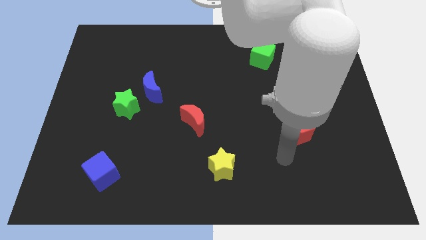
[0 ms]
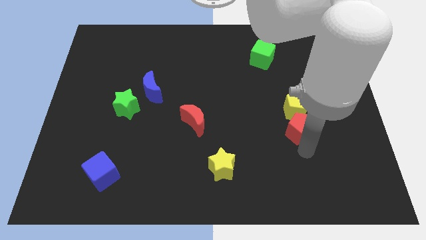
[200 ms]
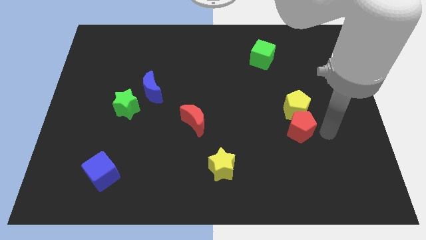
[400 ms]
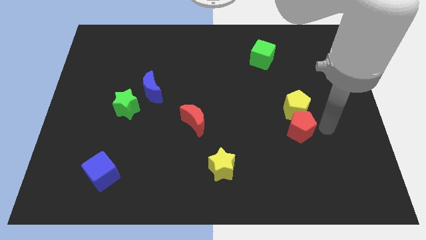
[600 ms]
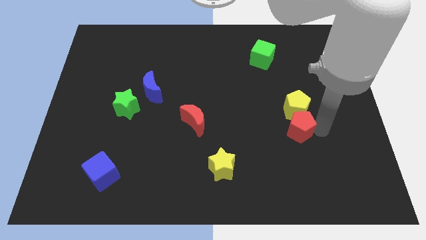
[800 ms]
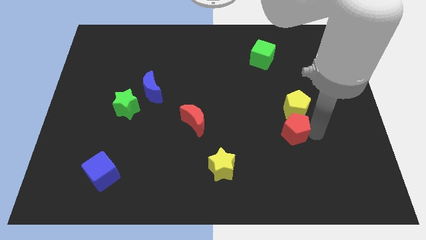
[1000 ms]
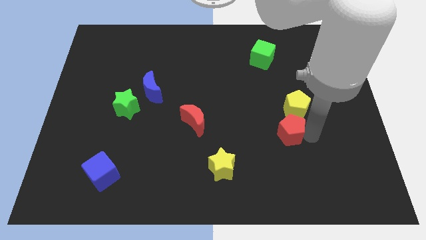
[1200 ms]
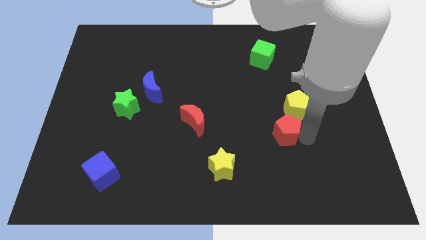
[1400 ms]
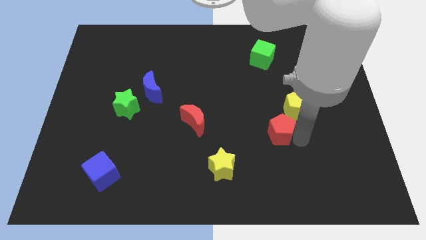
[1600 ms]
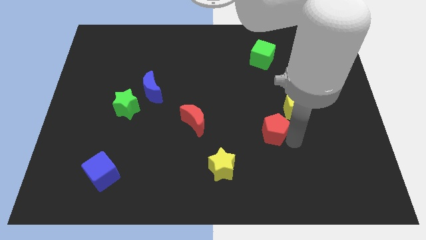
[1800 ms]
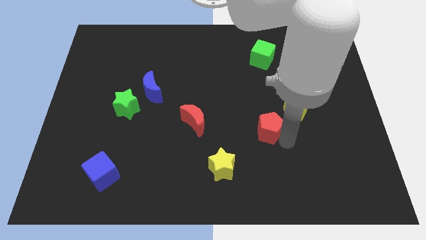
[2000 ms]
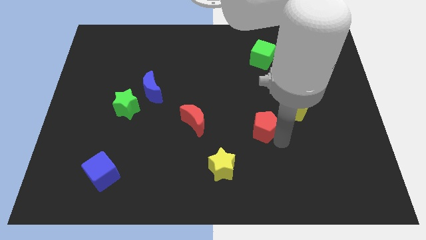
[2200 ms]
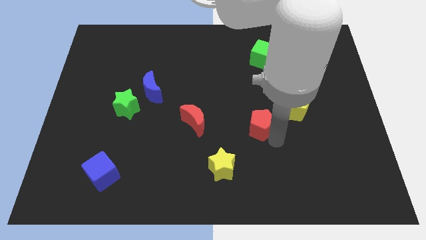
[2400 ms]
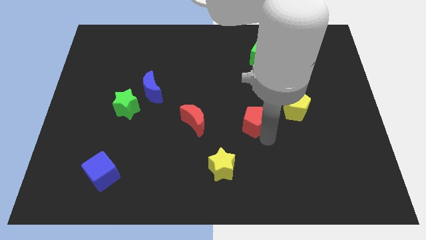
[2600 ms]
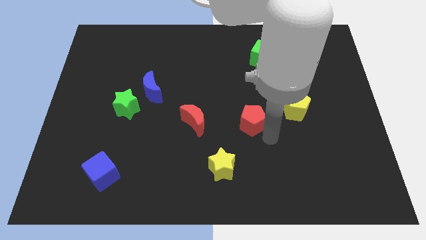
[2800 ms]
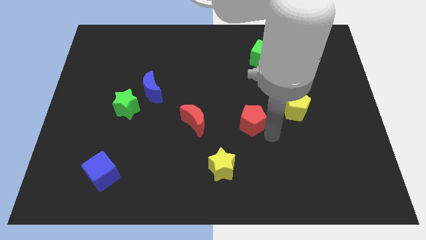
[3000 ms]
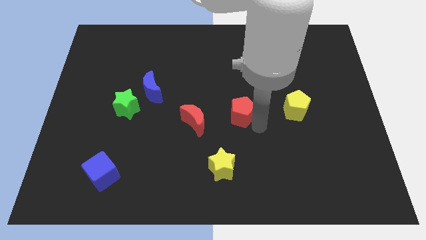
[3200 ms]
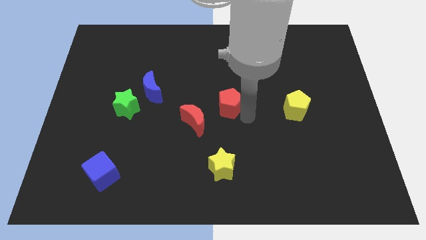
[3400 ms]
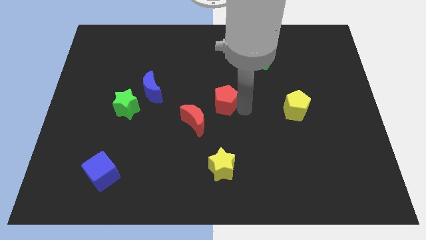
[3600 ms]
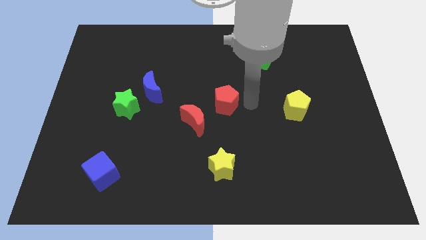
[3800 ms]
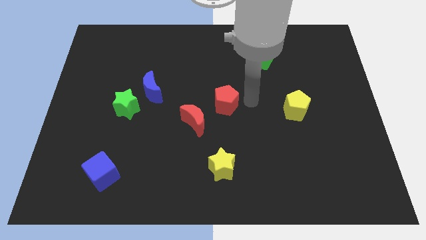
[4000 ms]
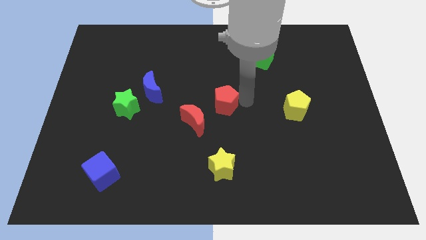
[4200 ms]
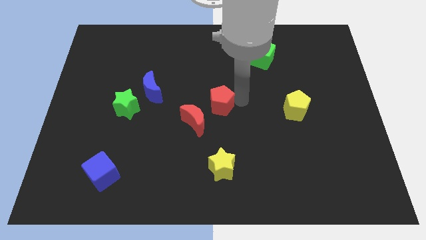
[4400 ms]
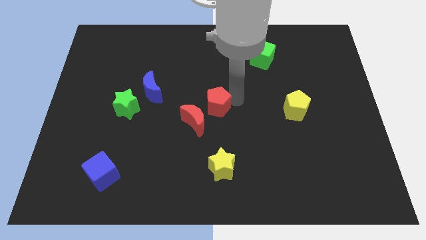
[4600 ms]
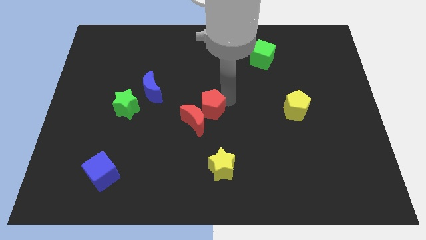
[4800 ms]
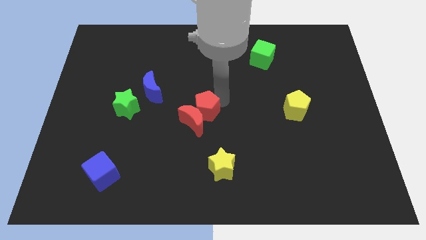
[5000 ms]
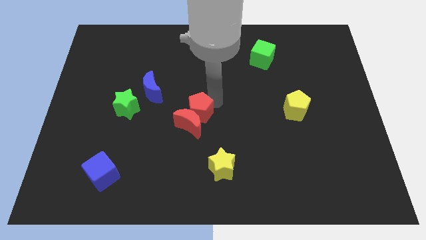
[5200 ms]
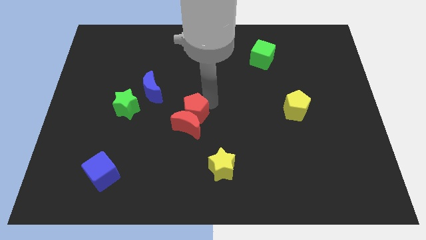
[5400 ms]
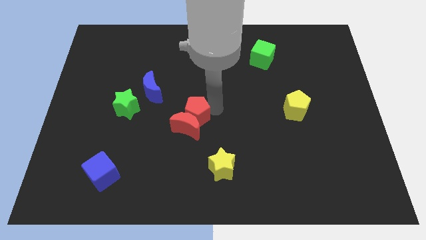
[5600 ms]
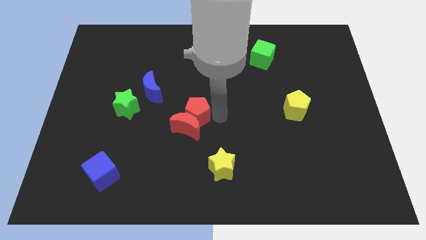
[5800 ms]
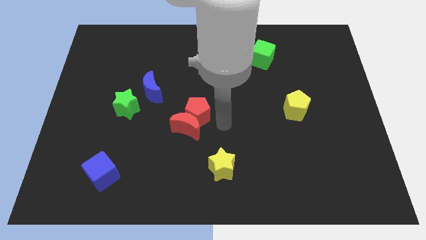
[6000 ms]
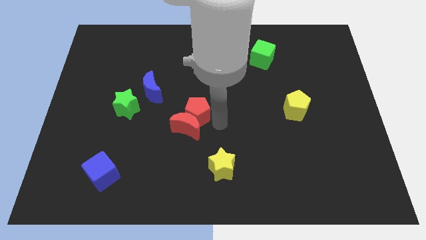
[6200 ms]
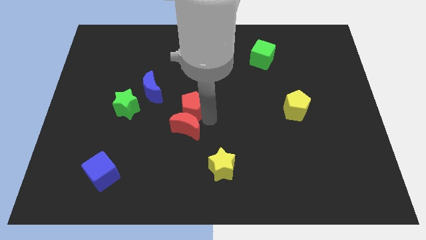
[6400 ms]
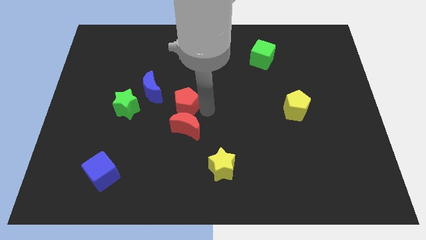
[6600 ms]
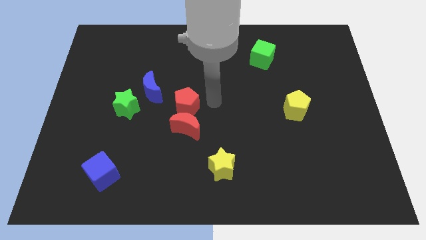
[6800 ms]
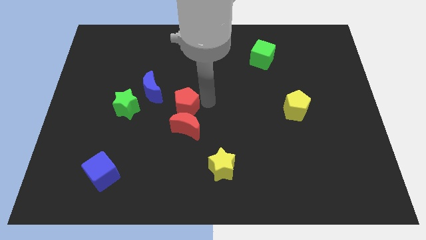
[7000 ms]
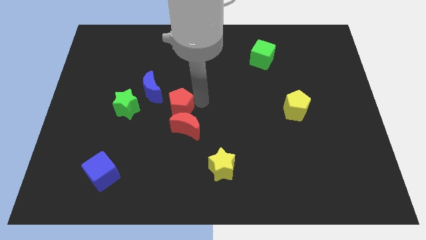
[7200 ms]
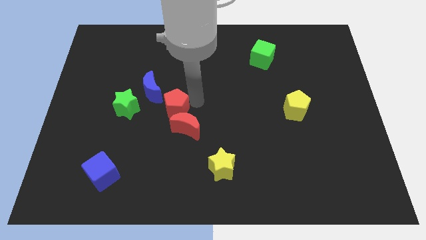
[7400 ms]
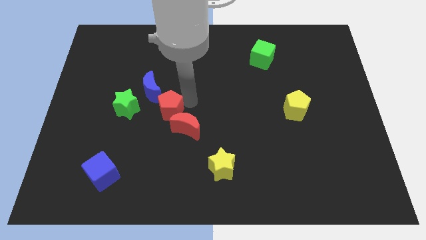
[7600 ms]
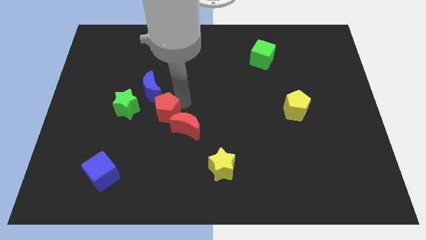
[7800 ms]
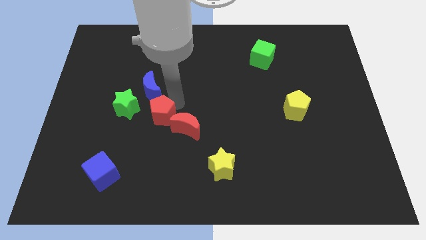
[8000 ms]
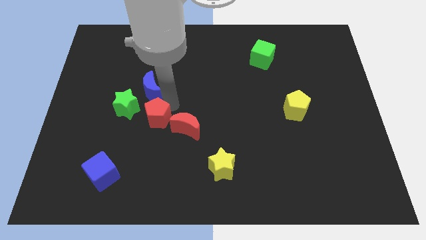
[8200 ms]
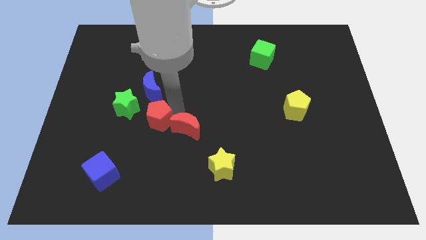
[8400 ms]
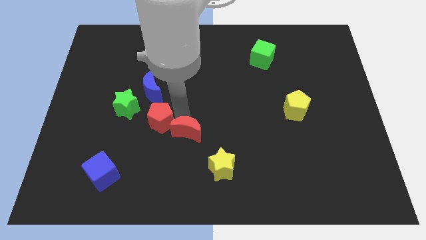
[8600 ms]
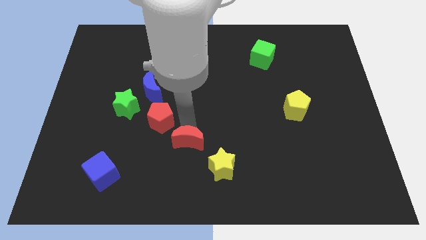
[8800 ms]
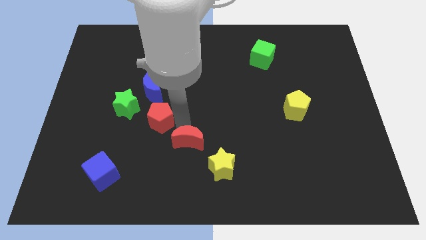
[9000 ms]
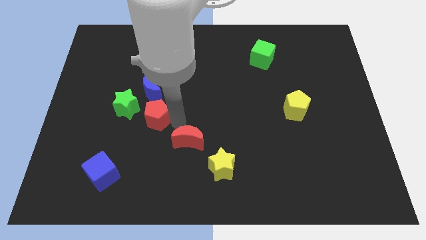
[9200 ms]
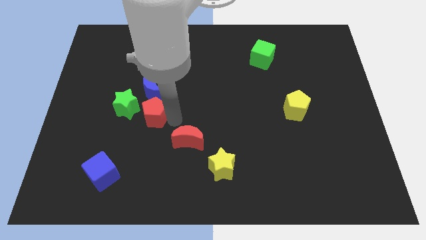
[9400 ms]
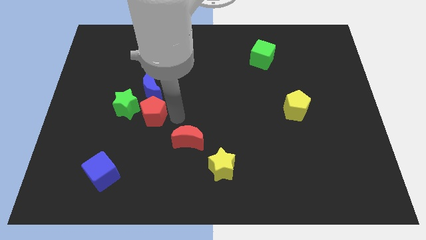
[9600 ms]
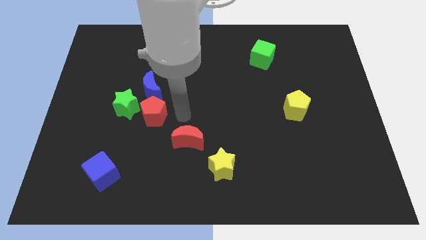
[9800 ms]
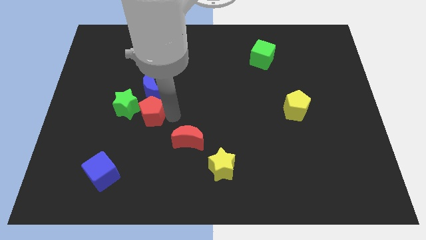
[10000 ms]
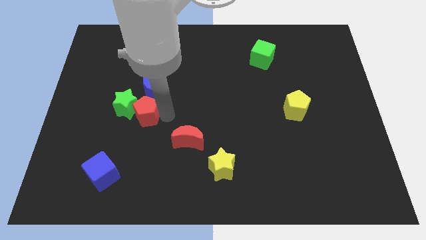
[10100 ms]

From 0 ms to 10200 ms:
put the red pentagon close to the green star

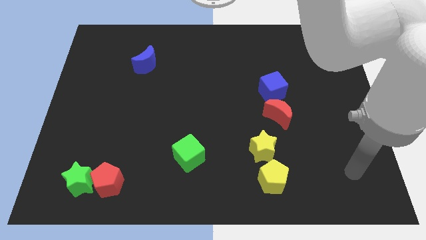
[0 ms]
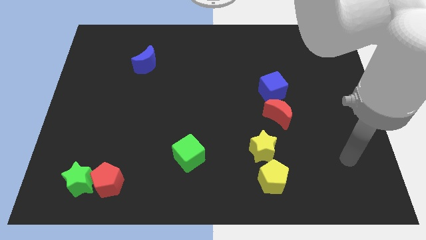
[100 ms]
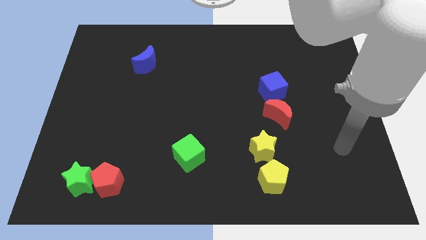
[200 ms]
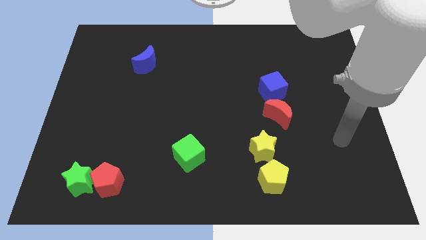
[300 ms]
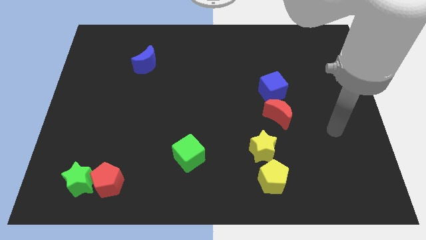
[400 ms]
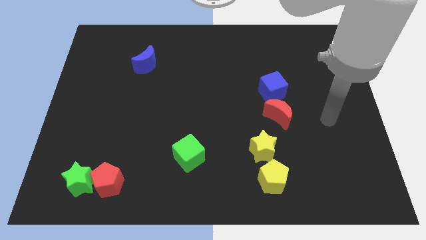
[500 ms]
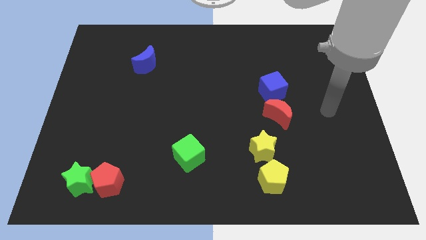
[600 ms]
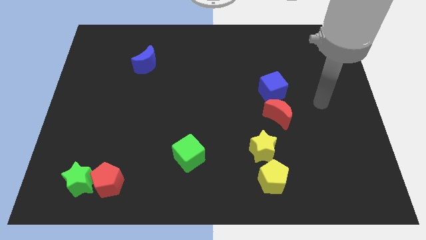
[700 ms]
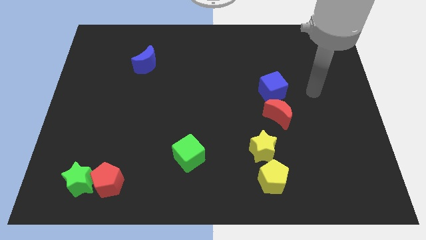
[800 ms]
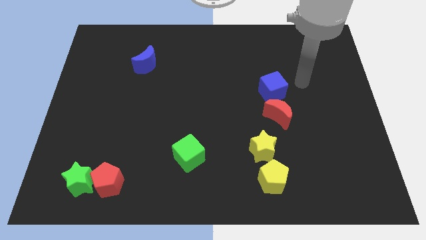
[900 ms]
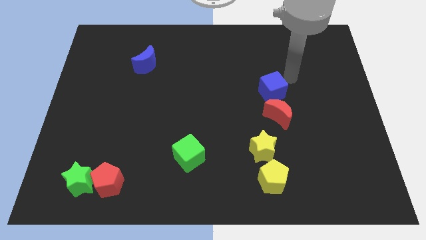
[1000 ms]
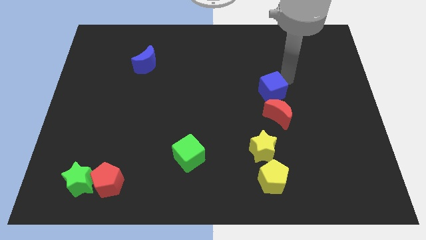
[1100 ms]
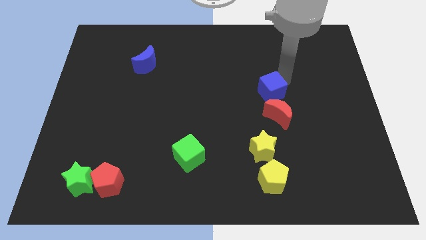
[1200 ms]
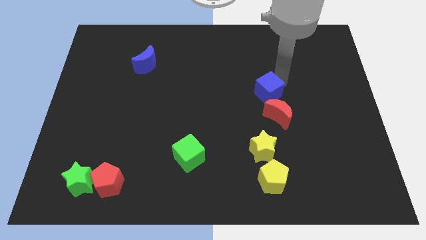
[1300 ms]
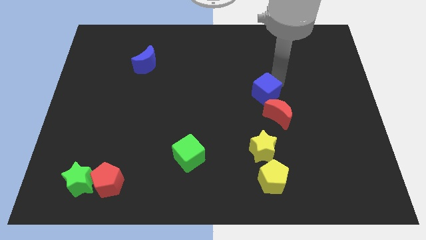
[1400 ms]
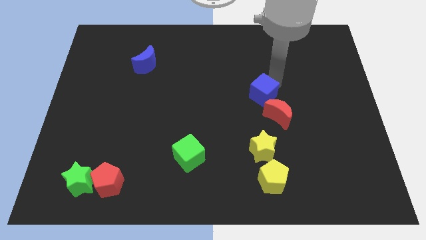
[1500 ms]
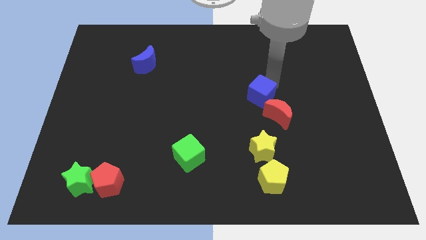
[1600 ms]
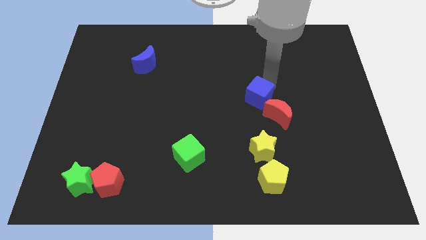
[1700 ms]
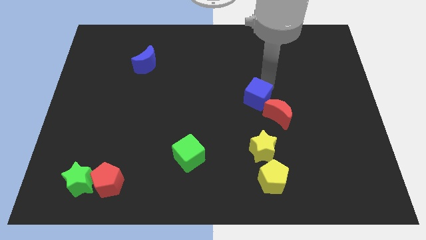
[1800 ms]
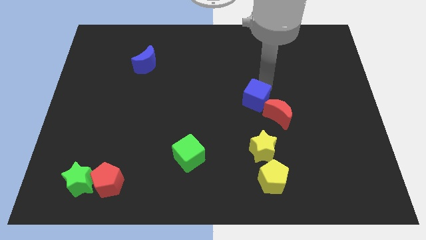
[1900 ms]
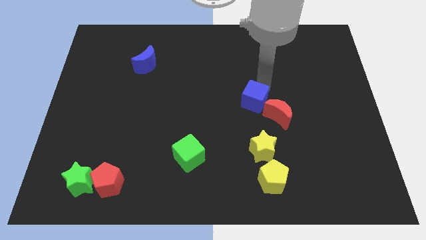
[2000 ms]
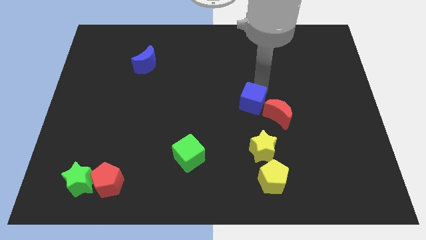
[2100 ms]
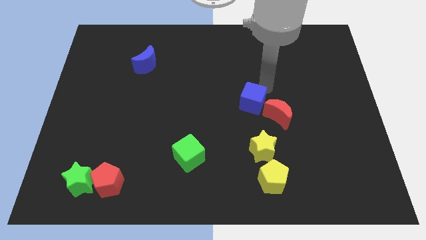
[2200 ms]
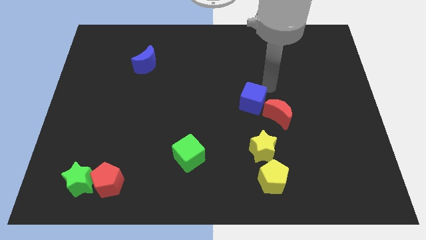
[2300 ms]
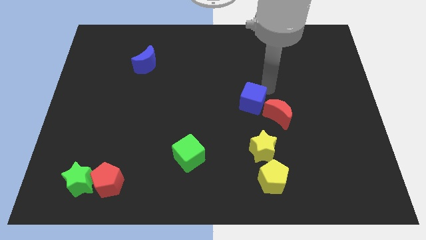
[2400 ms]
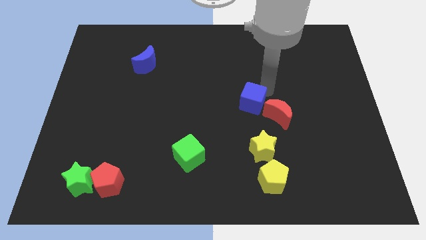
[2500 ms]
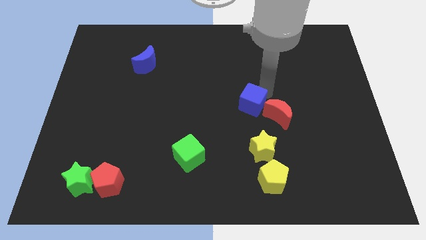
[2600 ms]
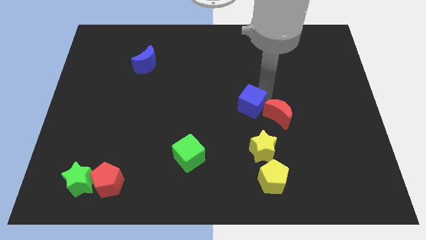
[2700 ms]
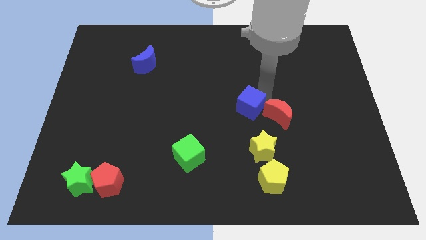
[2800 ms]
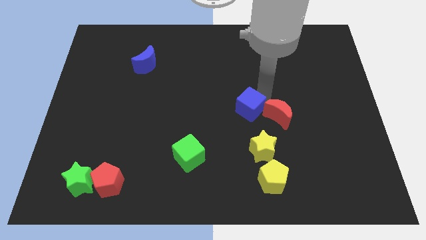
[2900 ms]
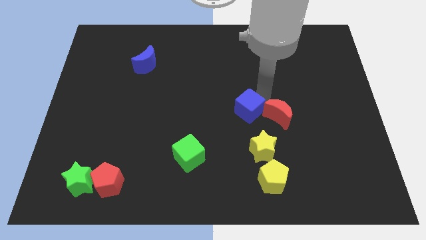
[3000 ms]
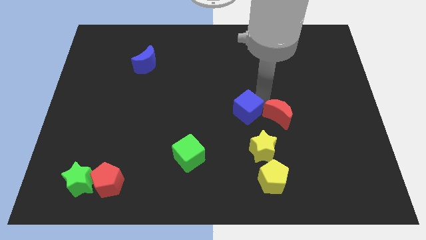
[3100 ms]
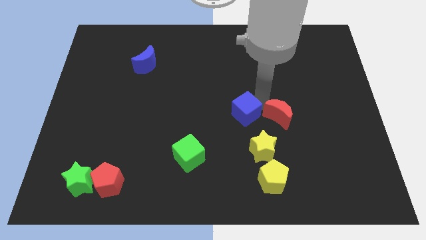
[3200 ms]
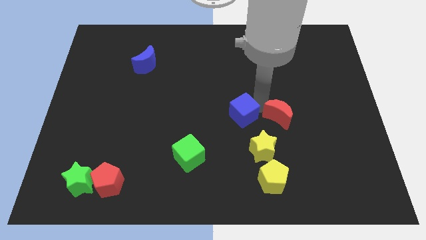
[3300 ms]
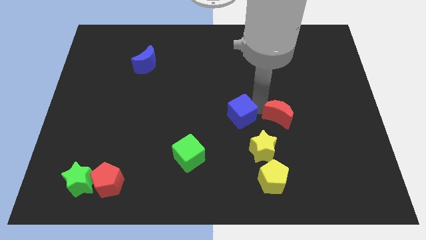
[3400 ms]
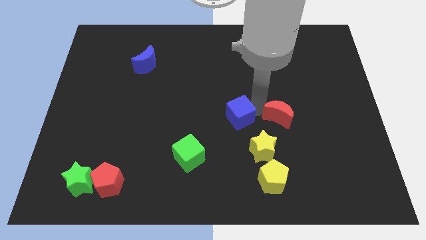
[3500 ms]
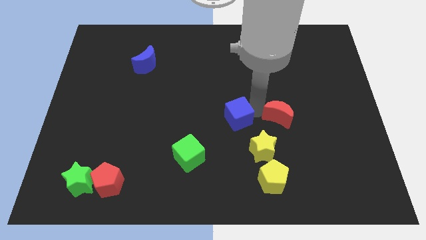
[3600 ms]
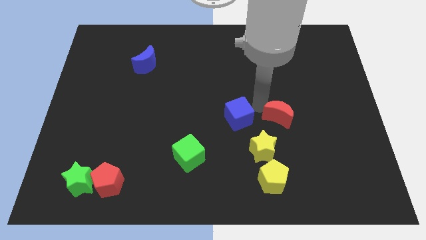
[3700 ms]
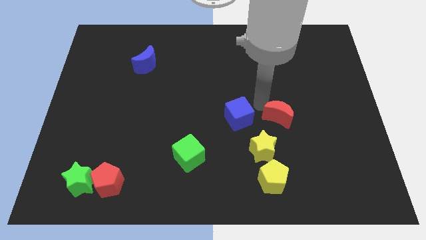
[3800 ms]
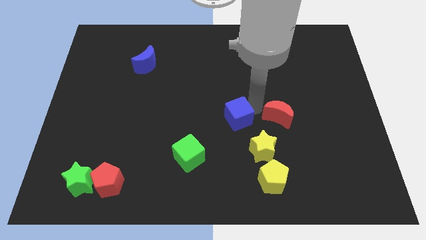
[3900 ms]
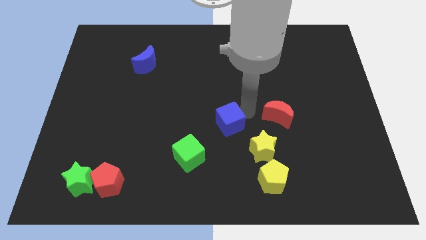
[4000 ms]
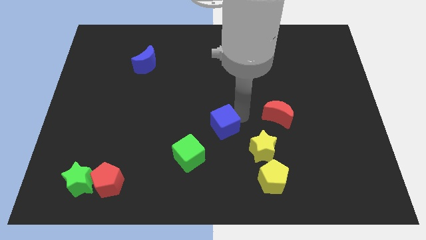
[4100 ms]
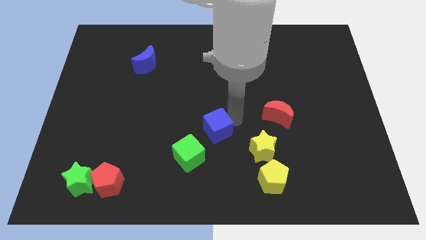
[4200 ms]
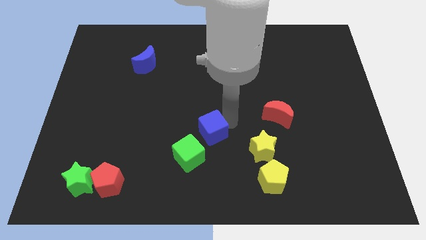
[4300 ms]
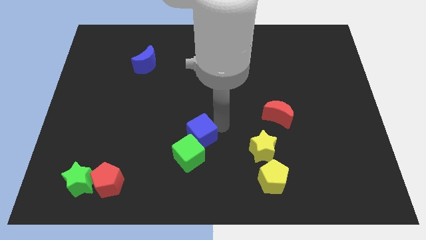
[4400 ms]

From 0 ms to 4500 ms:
move the blue cube next to the green cube
